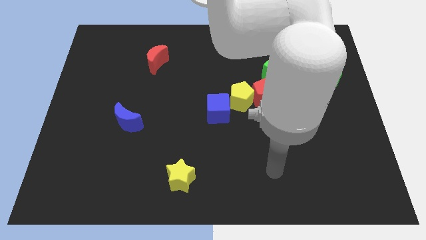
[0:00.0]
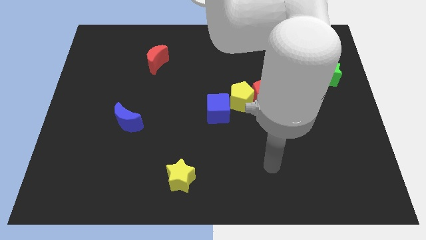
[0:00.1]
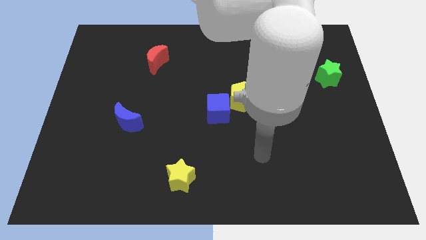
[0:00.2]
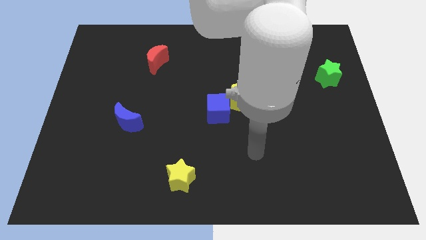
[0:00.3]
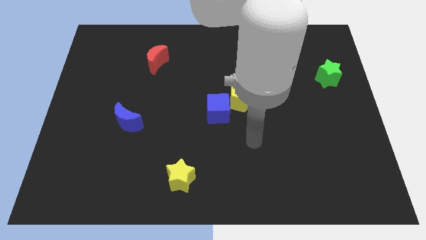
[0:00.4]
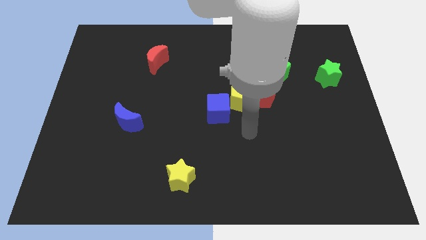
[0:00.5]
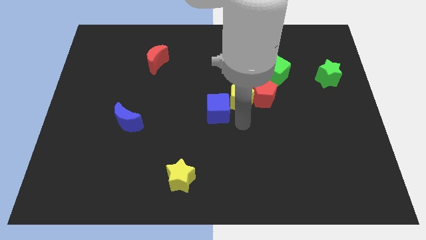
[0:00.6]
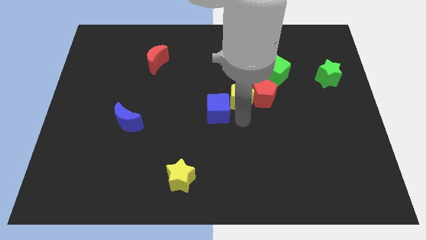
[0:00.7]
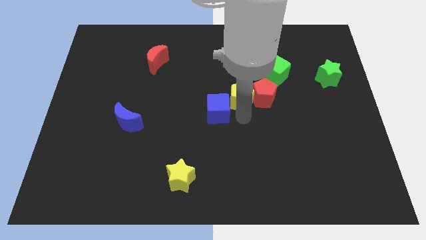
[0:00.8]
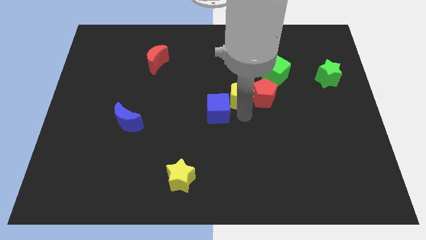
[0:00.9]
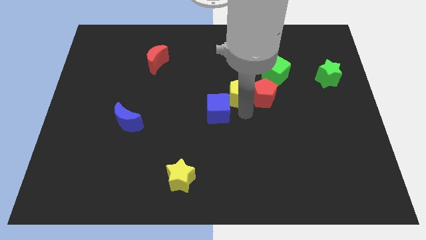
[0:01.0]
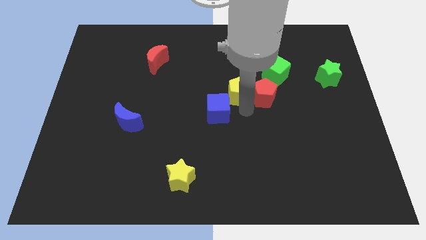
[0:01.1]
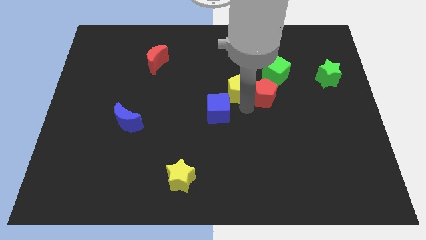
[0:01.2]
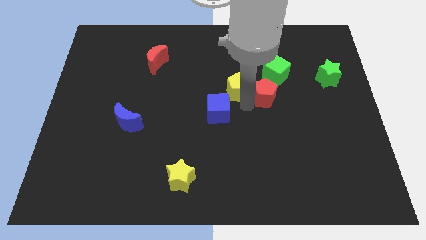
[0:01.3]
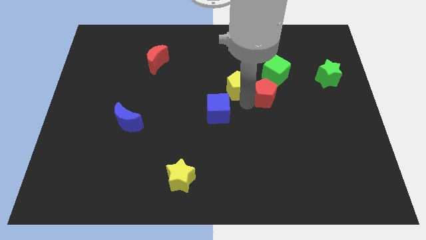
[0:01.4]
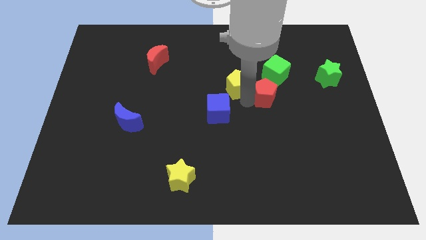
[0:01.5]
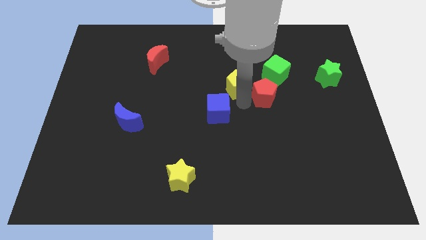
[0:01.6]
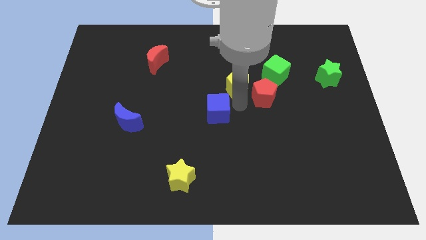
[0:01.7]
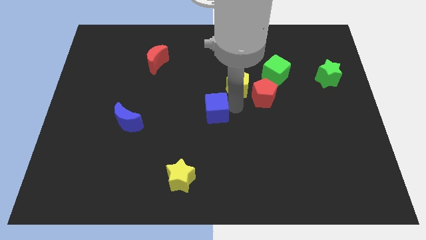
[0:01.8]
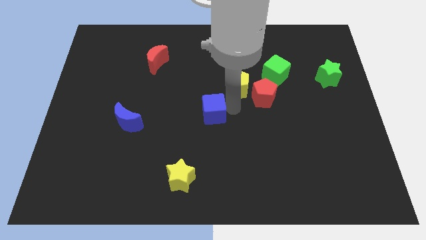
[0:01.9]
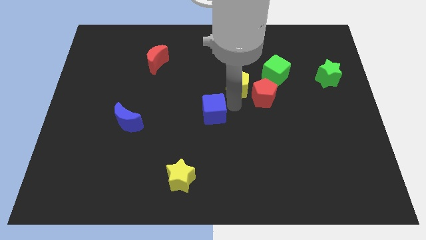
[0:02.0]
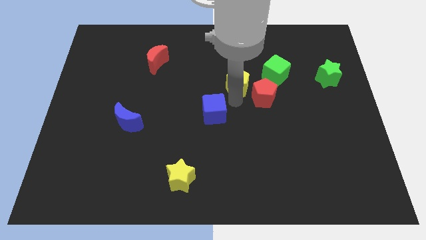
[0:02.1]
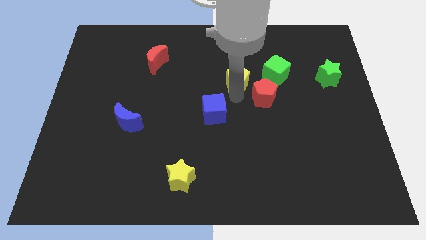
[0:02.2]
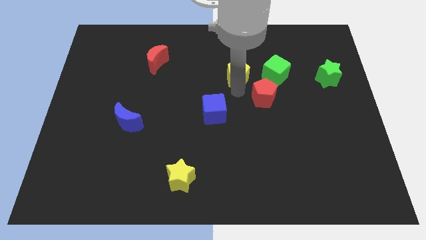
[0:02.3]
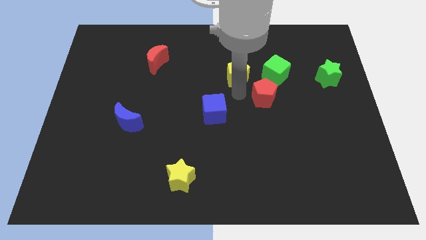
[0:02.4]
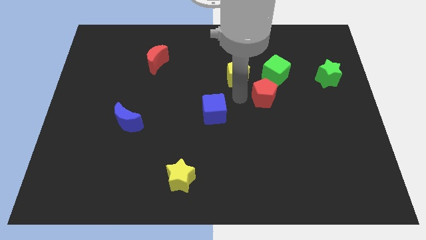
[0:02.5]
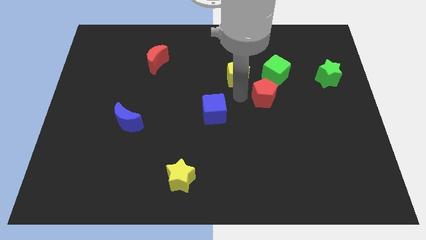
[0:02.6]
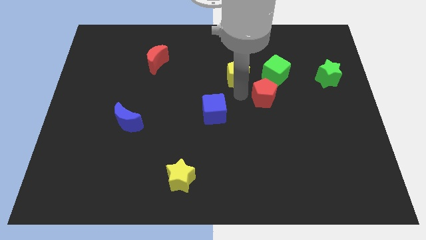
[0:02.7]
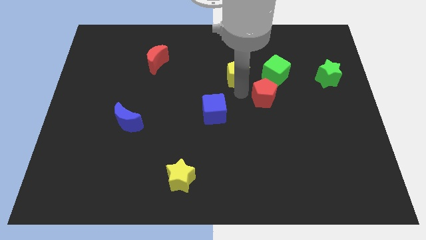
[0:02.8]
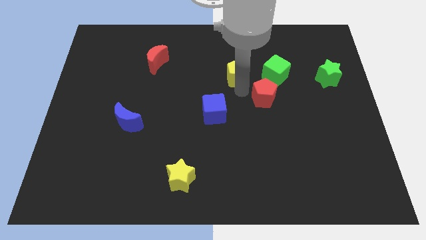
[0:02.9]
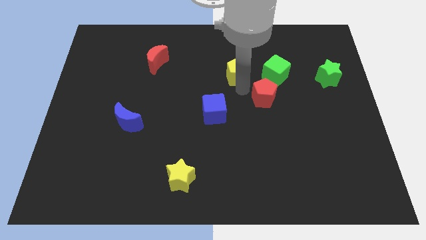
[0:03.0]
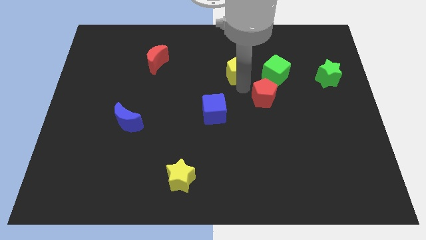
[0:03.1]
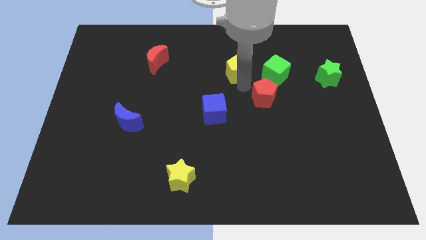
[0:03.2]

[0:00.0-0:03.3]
move the yellow pentagon away from the red pentagon and blue cube

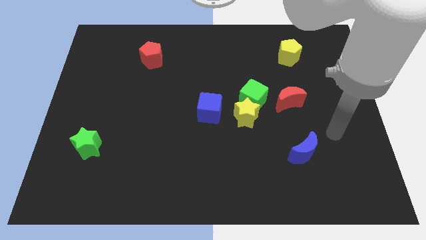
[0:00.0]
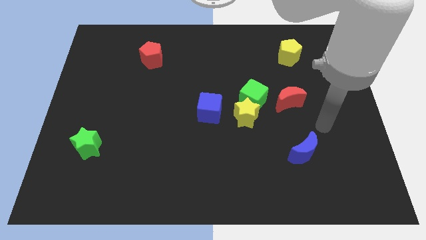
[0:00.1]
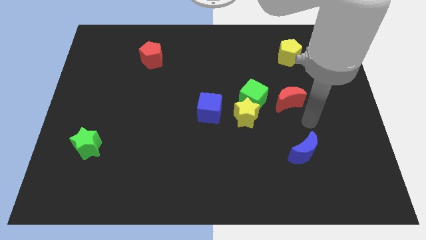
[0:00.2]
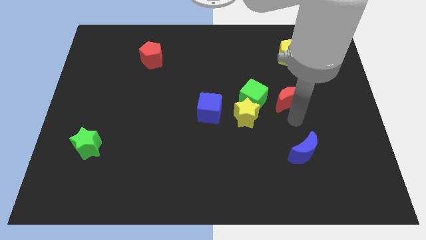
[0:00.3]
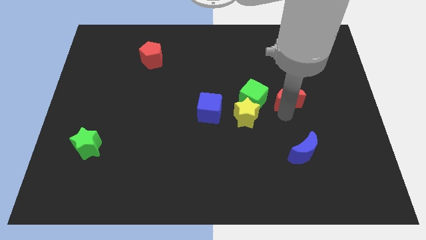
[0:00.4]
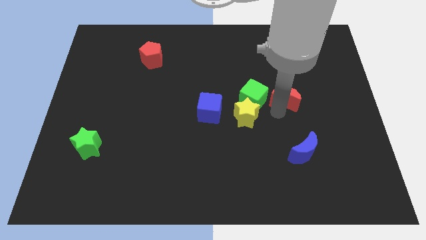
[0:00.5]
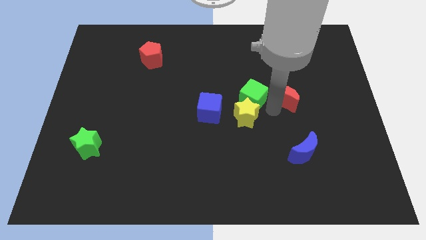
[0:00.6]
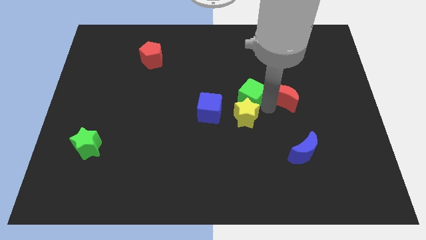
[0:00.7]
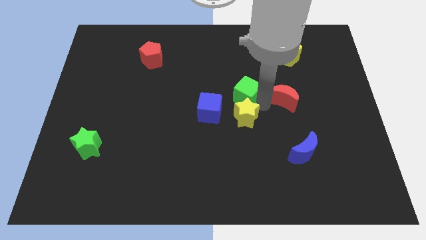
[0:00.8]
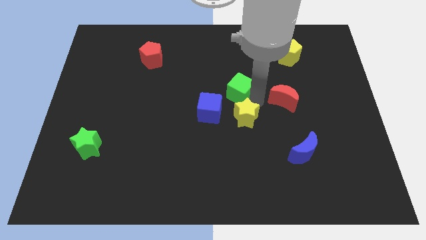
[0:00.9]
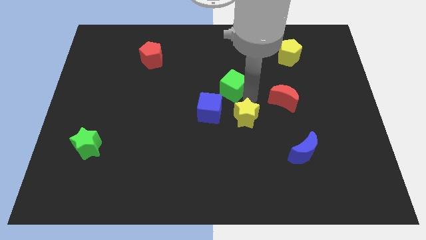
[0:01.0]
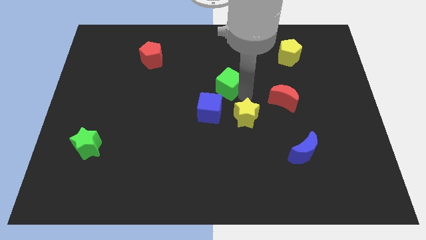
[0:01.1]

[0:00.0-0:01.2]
pull the green cube apart from the yellow star and red moon

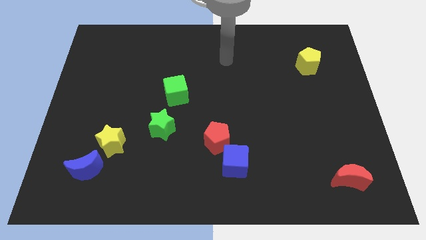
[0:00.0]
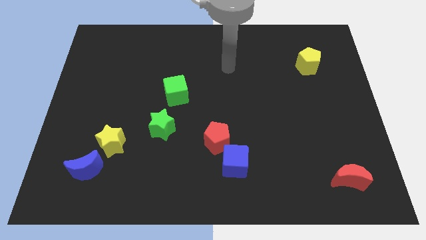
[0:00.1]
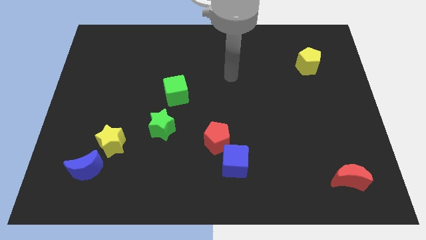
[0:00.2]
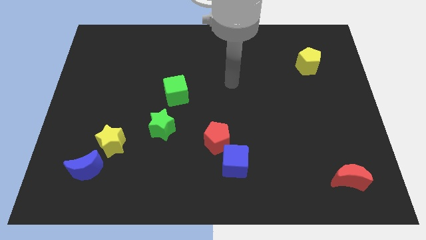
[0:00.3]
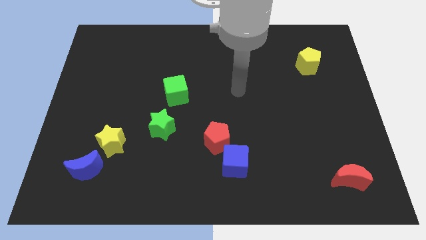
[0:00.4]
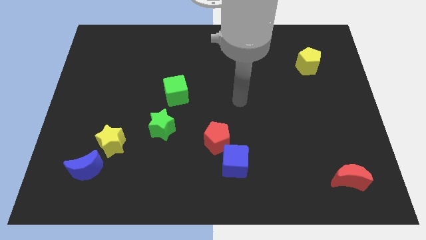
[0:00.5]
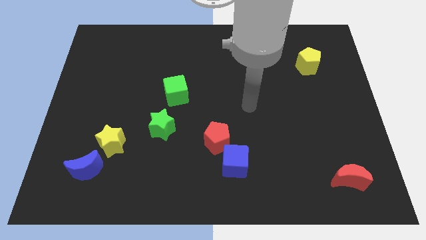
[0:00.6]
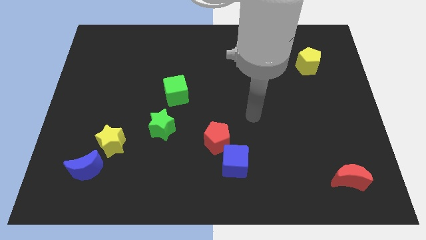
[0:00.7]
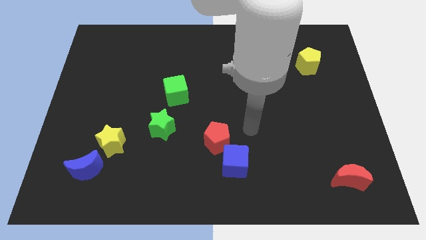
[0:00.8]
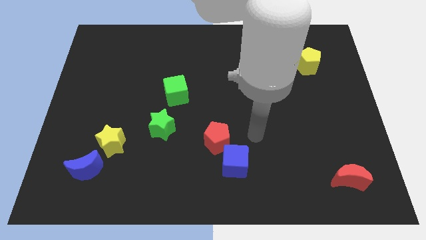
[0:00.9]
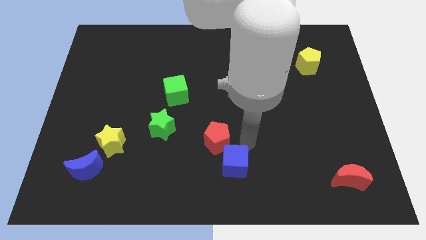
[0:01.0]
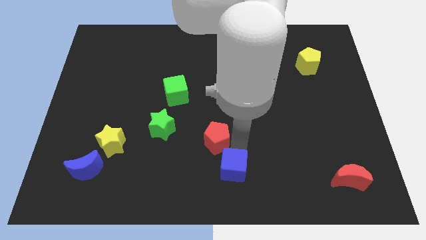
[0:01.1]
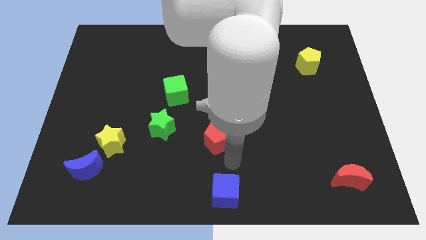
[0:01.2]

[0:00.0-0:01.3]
separate the red pentagon from the blue cube

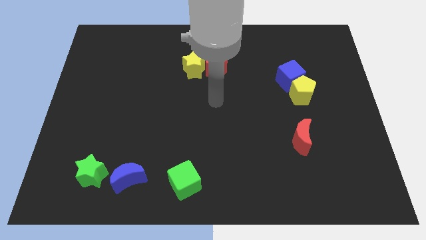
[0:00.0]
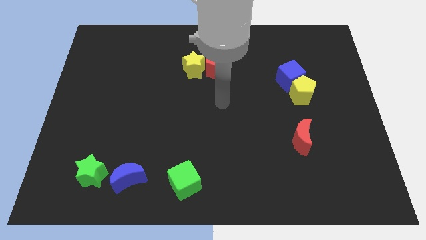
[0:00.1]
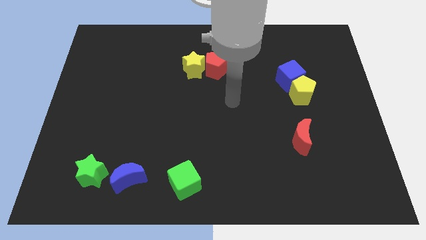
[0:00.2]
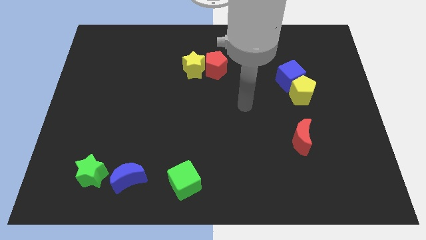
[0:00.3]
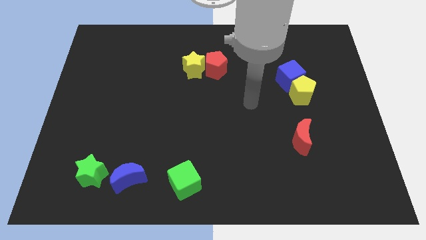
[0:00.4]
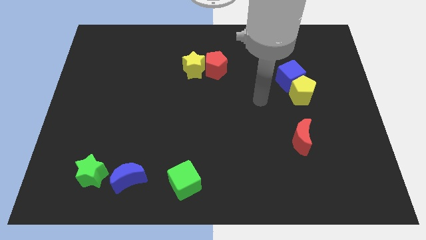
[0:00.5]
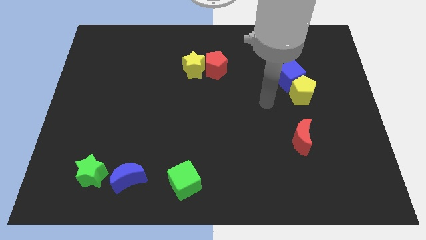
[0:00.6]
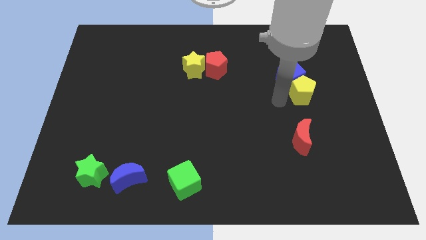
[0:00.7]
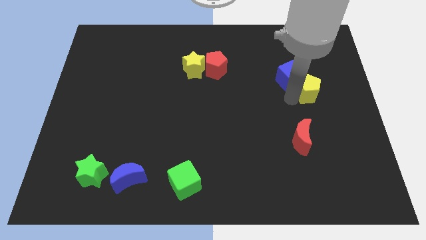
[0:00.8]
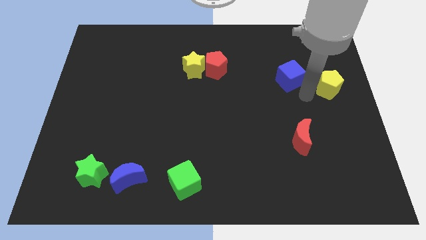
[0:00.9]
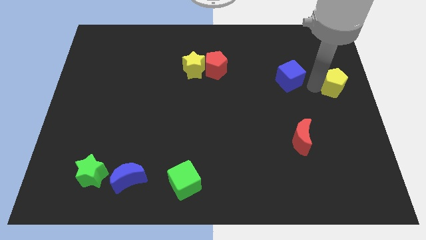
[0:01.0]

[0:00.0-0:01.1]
pull the blue cube apart from the yellow pentagon

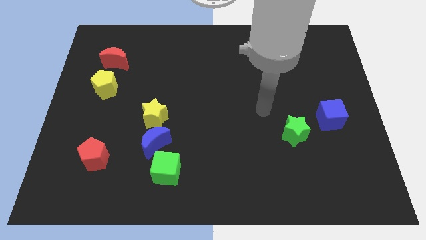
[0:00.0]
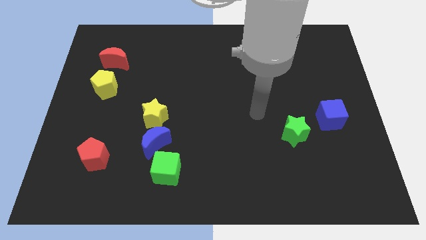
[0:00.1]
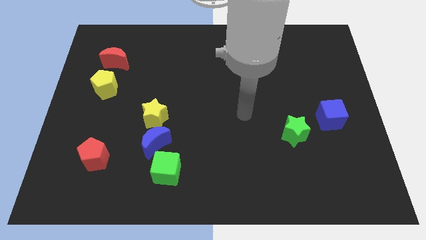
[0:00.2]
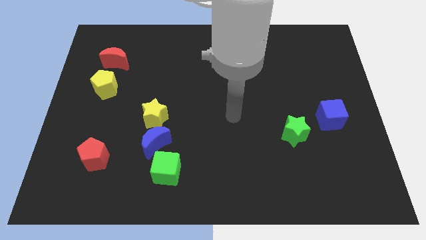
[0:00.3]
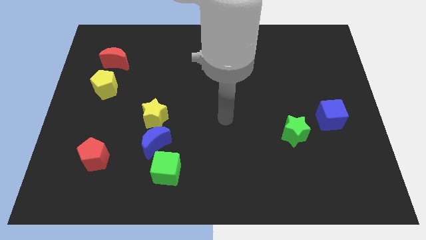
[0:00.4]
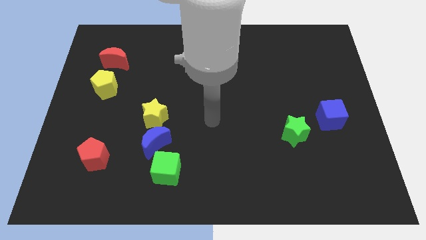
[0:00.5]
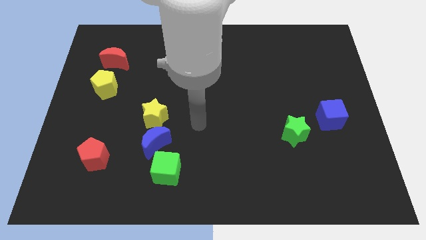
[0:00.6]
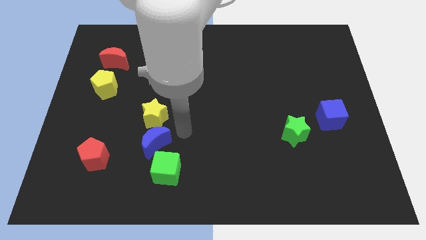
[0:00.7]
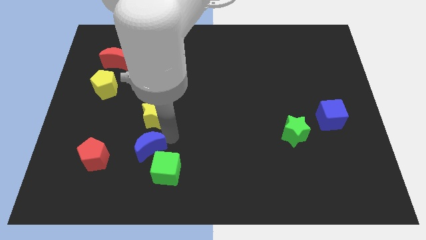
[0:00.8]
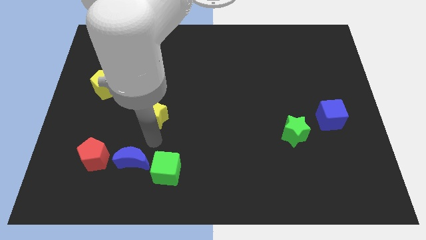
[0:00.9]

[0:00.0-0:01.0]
move the yellow star away from the blue moon

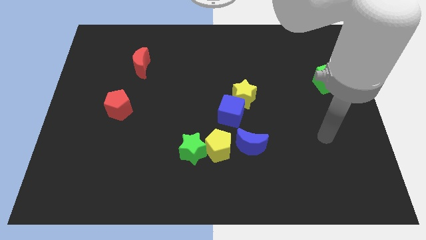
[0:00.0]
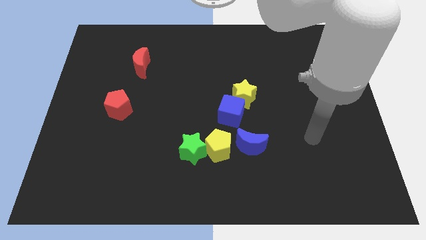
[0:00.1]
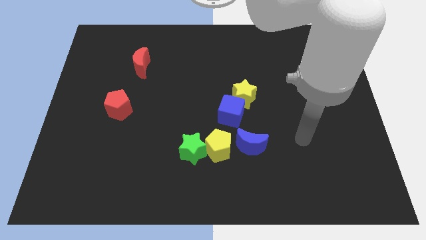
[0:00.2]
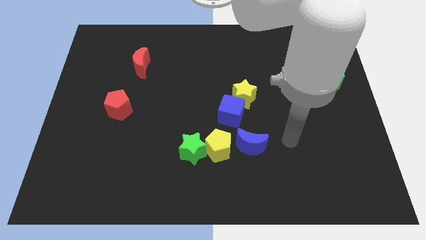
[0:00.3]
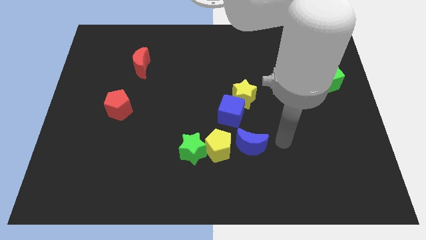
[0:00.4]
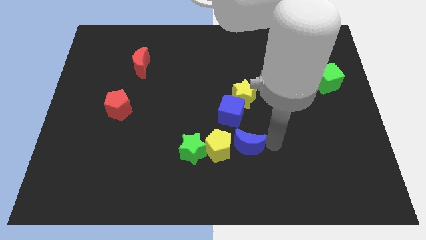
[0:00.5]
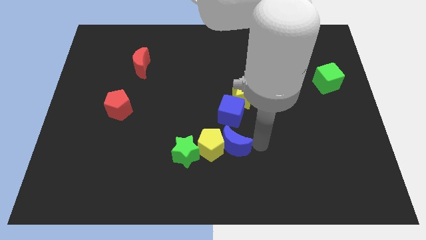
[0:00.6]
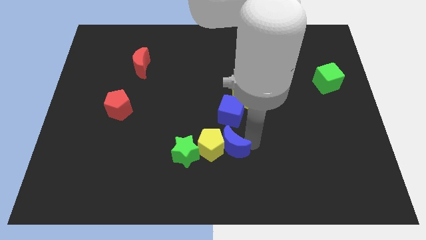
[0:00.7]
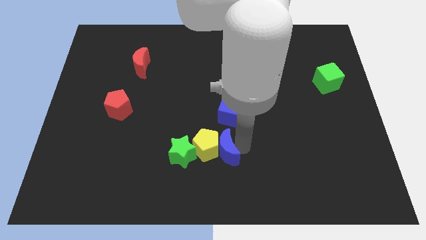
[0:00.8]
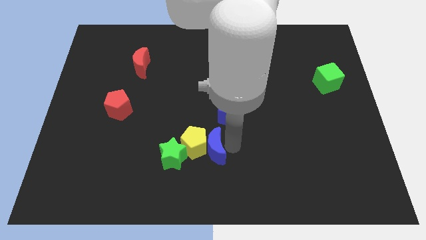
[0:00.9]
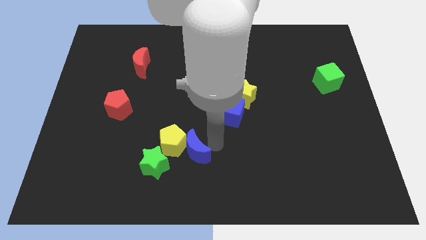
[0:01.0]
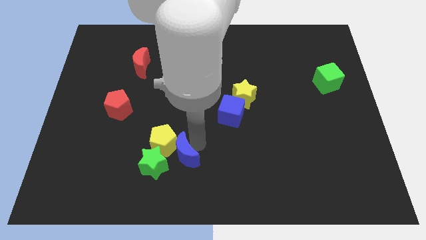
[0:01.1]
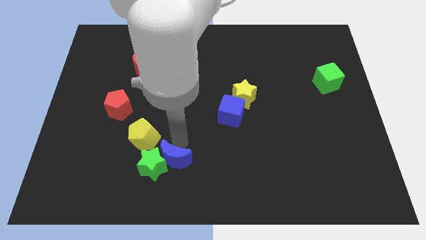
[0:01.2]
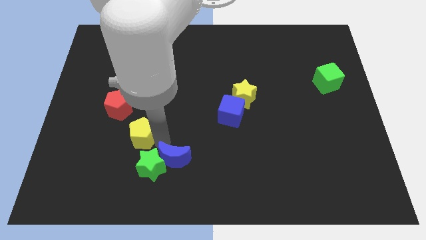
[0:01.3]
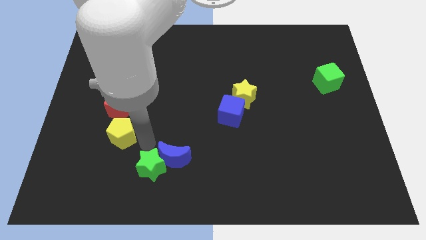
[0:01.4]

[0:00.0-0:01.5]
separate the green star from the yellow pentagon
